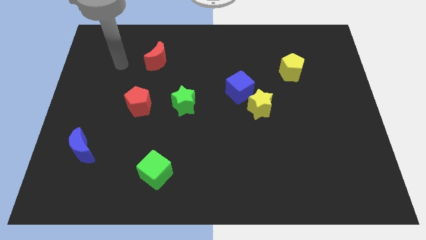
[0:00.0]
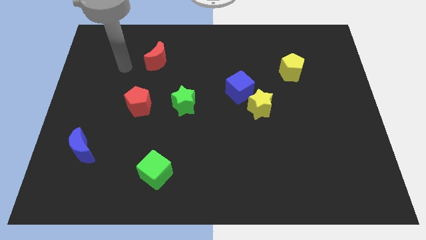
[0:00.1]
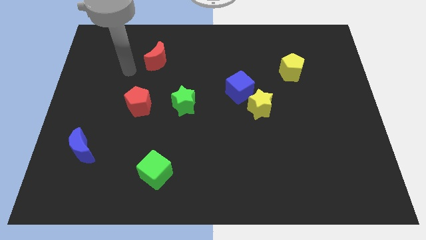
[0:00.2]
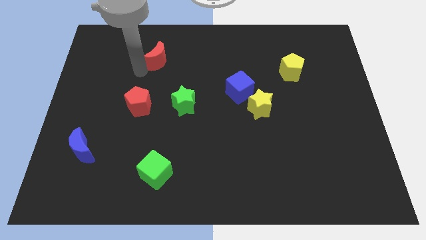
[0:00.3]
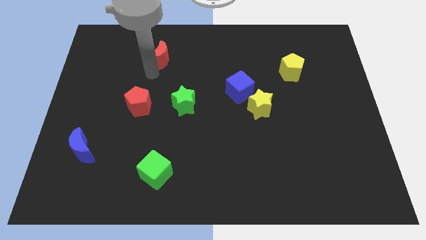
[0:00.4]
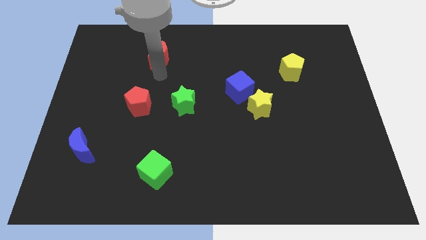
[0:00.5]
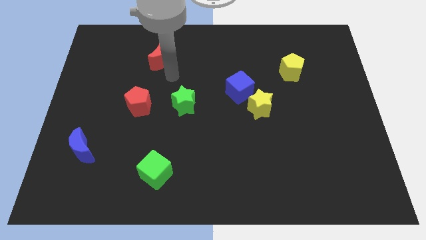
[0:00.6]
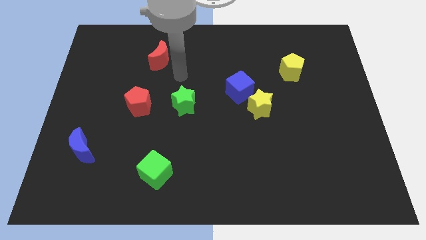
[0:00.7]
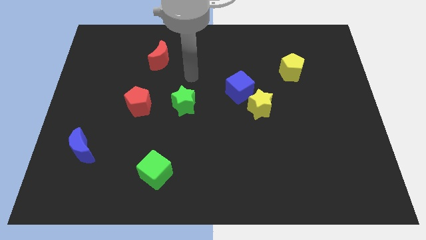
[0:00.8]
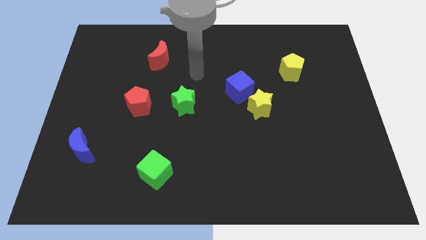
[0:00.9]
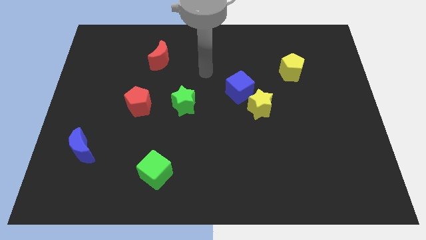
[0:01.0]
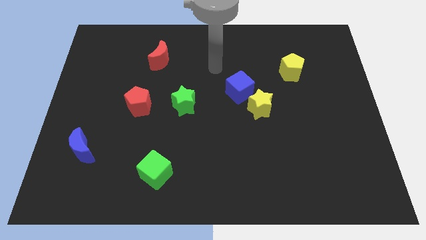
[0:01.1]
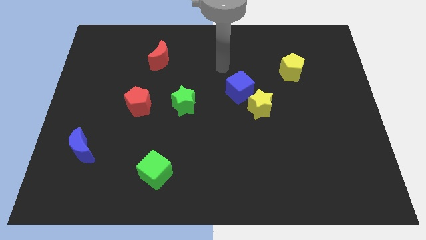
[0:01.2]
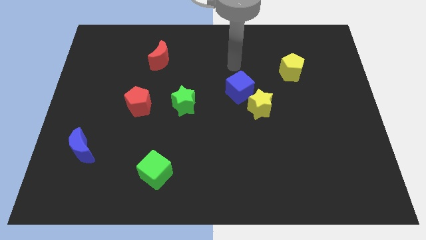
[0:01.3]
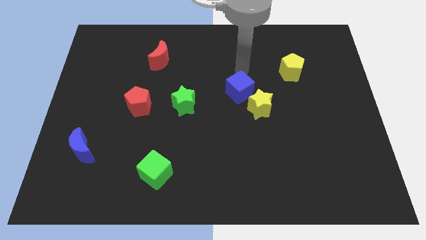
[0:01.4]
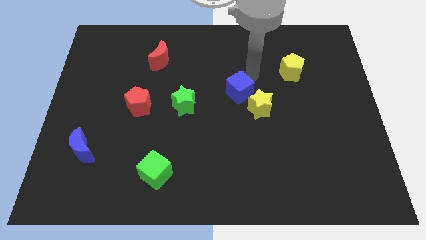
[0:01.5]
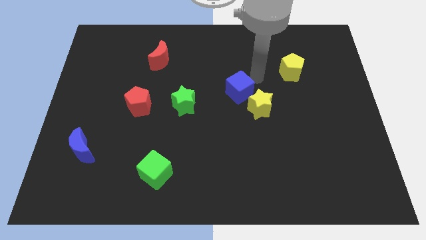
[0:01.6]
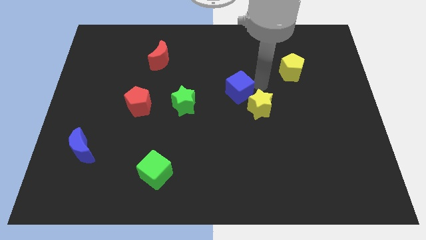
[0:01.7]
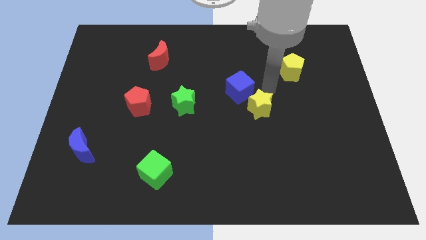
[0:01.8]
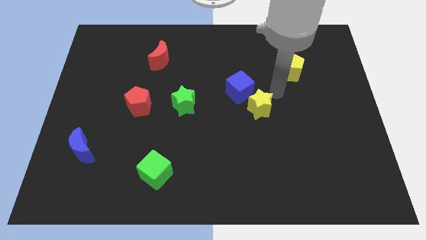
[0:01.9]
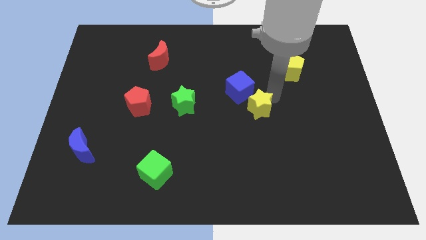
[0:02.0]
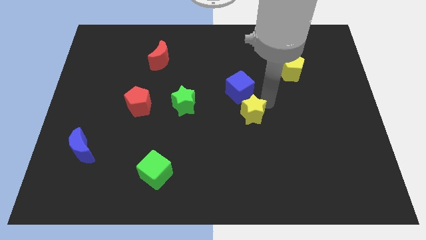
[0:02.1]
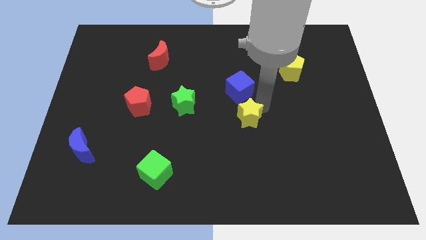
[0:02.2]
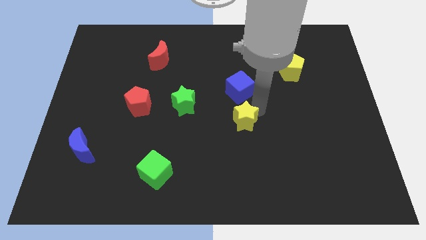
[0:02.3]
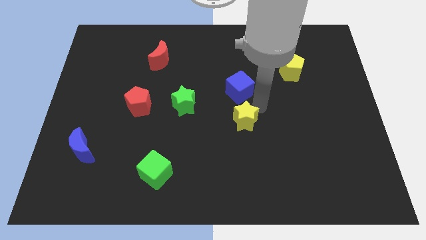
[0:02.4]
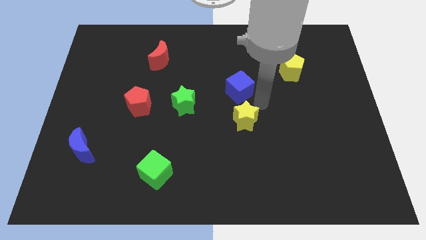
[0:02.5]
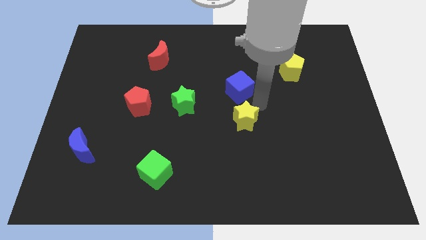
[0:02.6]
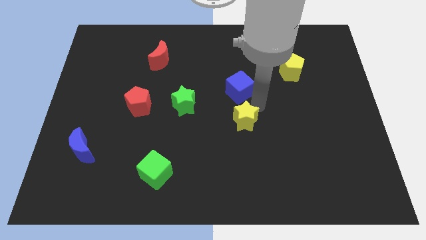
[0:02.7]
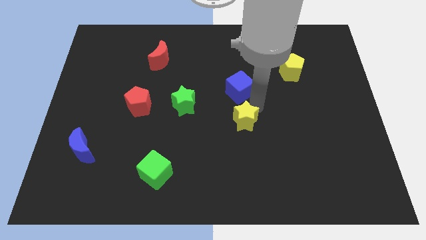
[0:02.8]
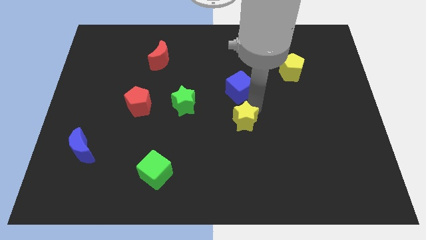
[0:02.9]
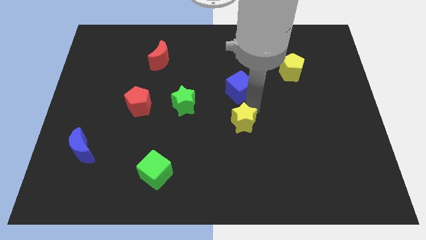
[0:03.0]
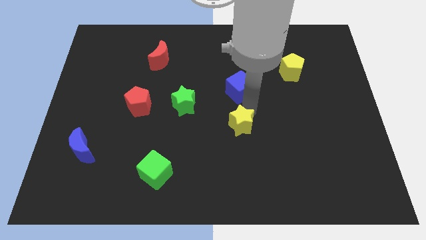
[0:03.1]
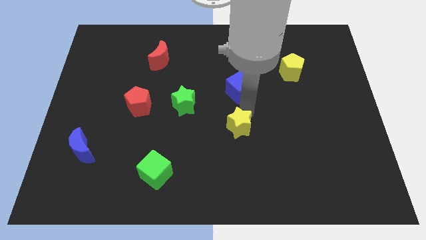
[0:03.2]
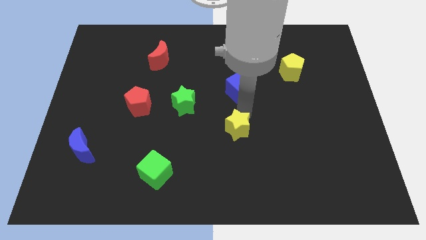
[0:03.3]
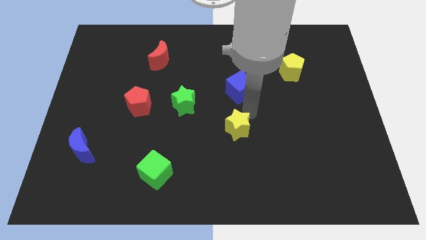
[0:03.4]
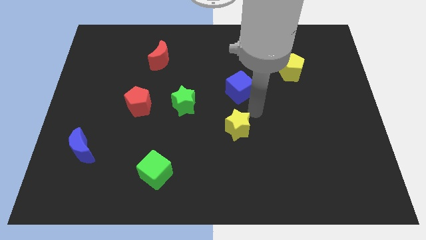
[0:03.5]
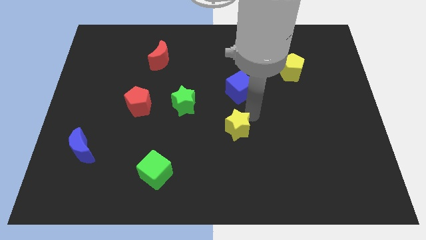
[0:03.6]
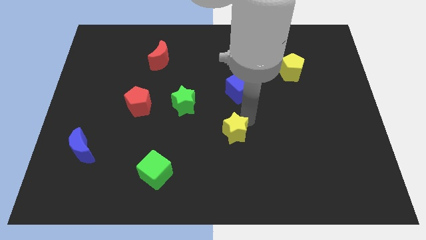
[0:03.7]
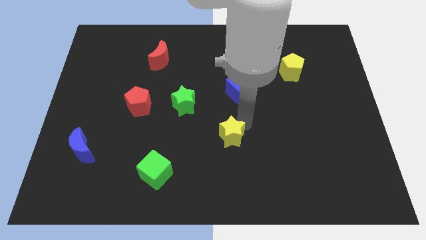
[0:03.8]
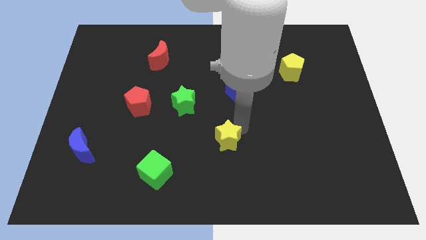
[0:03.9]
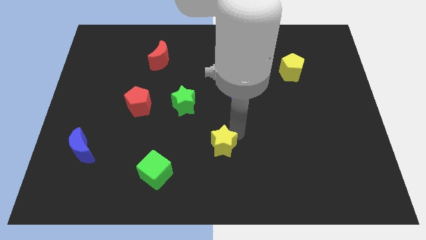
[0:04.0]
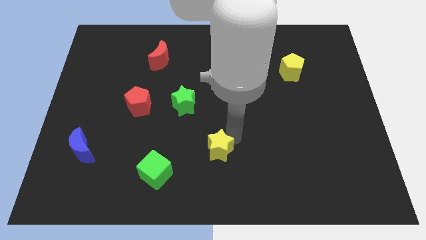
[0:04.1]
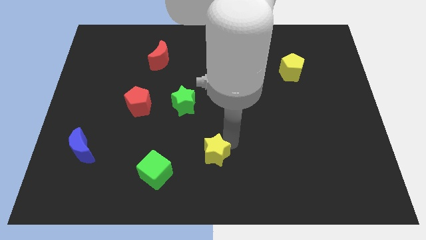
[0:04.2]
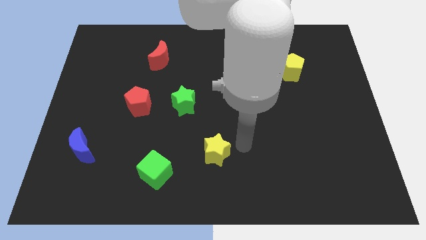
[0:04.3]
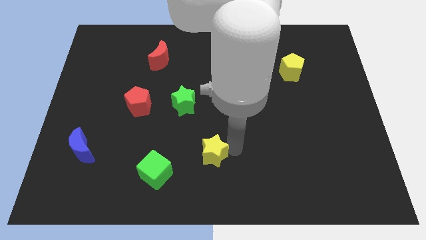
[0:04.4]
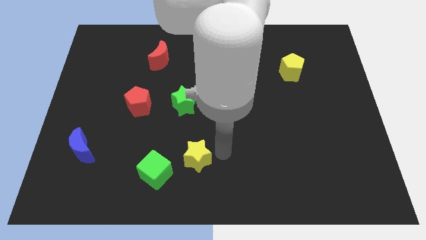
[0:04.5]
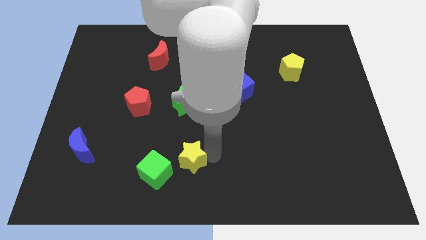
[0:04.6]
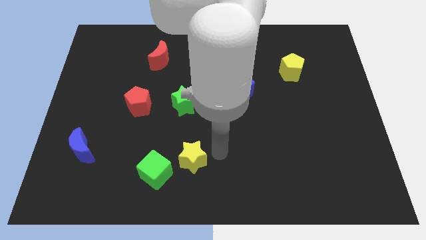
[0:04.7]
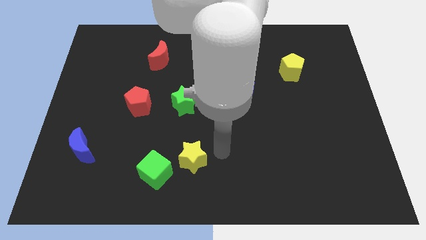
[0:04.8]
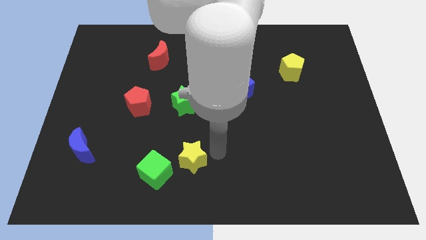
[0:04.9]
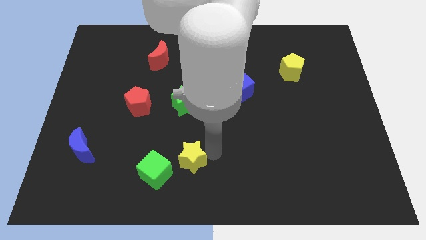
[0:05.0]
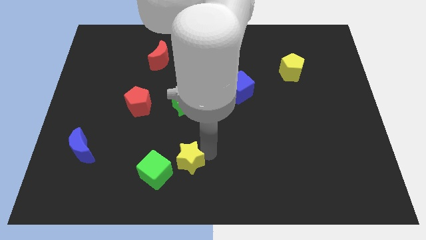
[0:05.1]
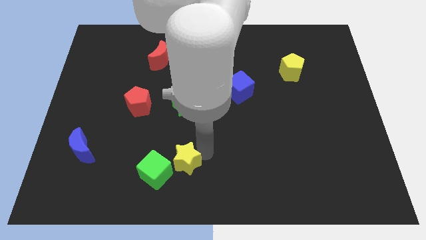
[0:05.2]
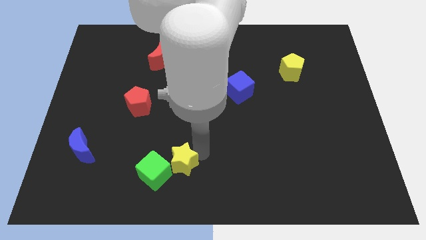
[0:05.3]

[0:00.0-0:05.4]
push the yellow star next to the green cube

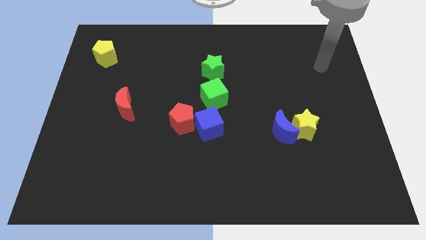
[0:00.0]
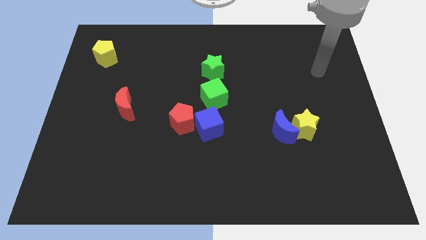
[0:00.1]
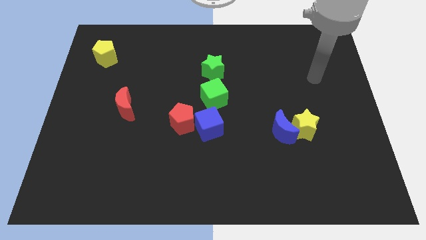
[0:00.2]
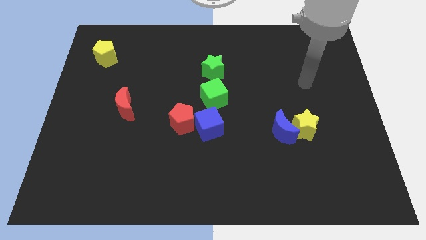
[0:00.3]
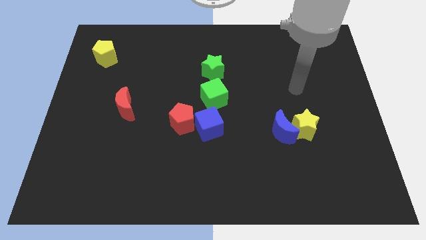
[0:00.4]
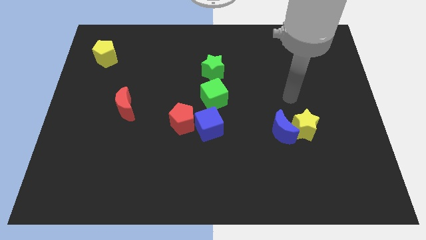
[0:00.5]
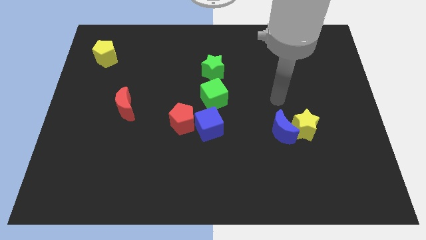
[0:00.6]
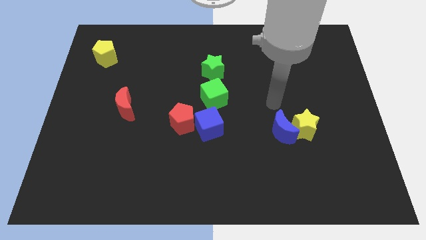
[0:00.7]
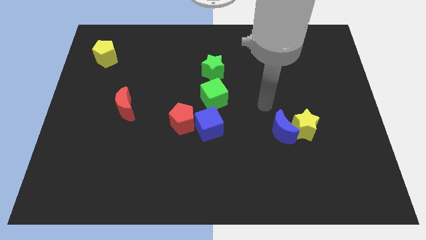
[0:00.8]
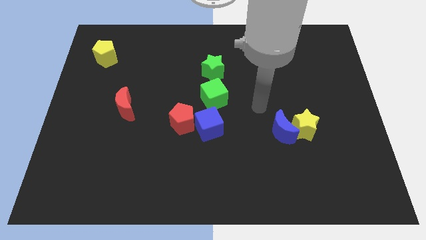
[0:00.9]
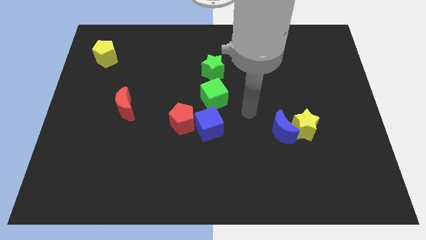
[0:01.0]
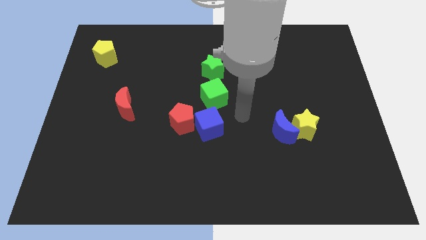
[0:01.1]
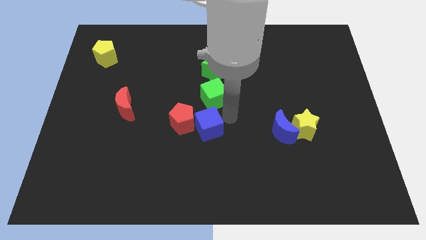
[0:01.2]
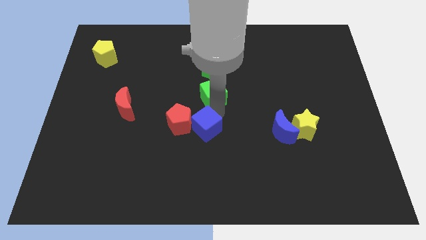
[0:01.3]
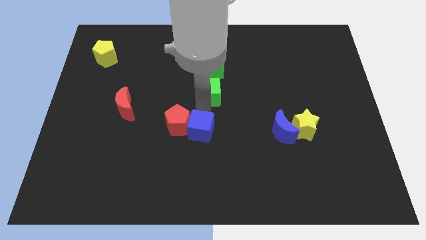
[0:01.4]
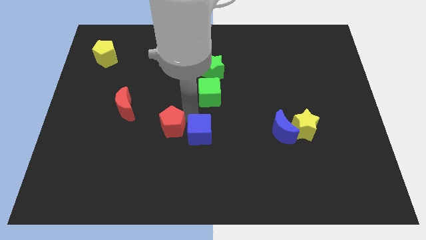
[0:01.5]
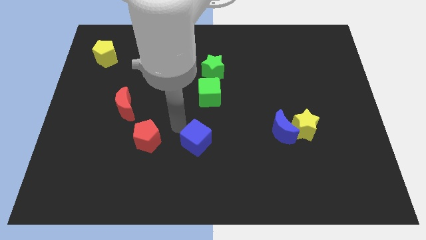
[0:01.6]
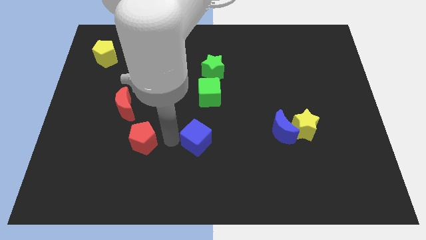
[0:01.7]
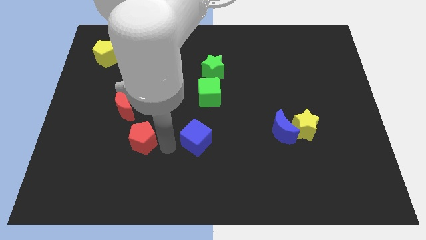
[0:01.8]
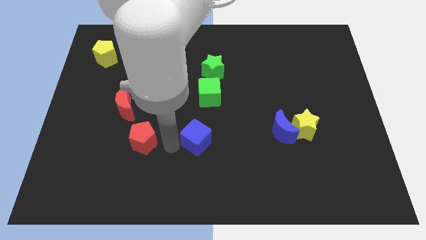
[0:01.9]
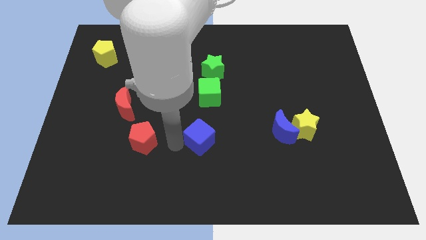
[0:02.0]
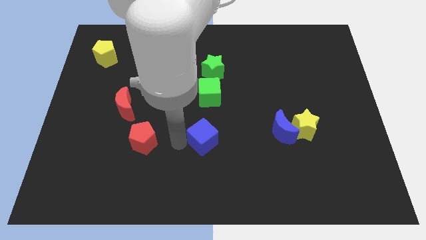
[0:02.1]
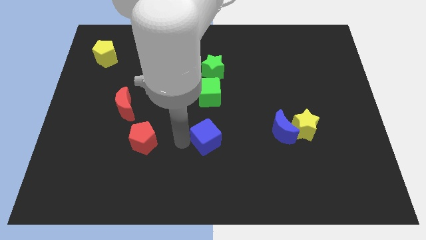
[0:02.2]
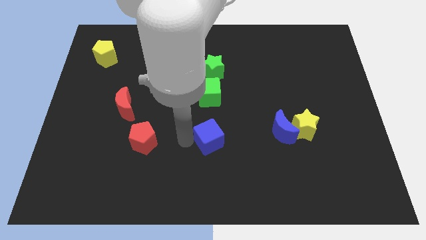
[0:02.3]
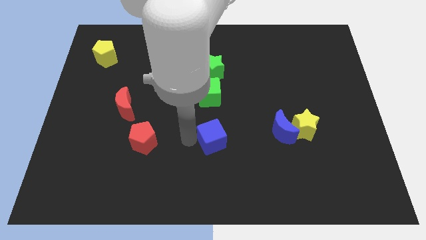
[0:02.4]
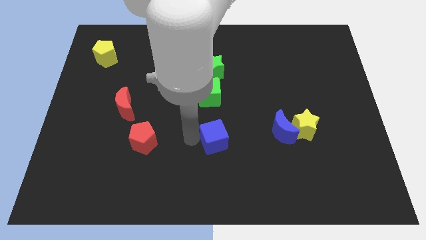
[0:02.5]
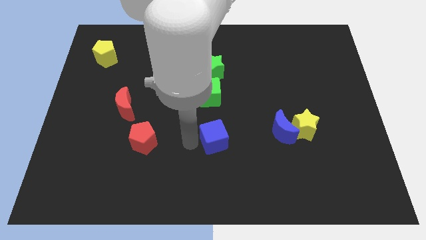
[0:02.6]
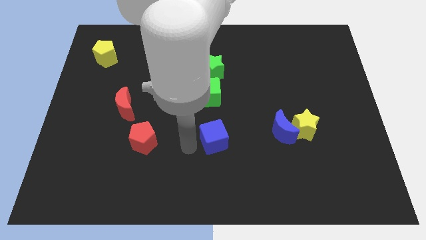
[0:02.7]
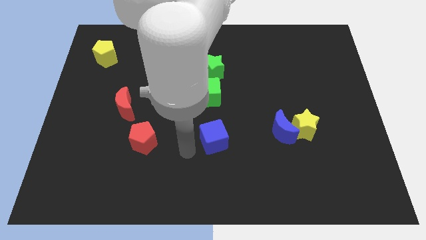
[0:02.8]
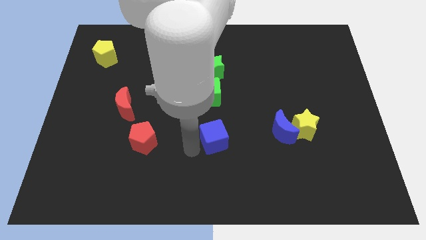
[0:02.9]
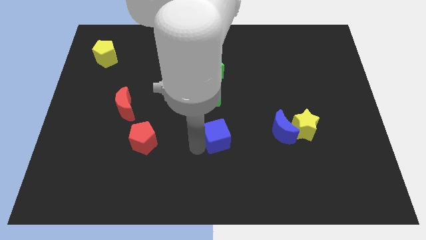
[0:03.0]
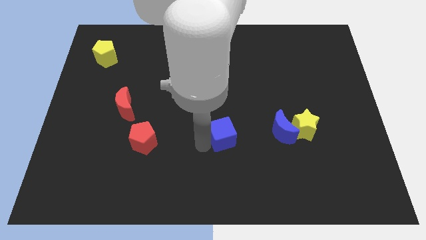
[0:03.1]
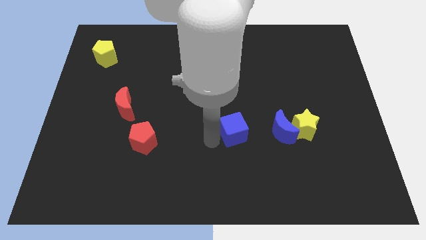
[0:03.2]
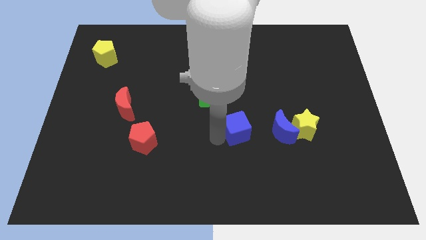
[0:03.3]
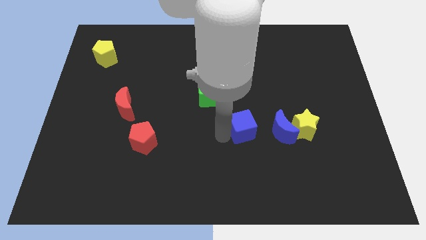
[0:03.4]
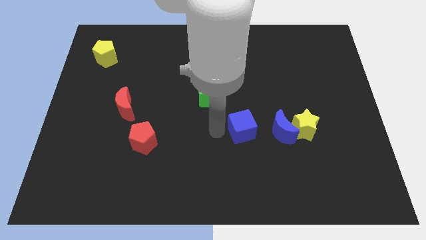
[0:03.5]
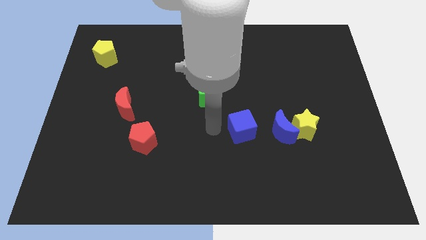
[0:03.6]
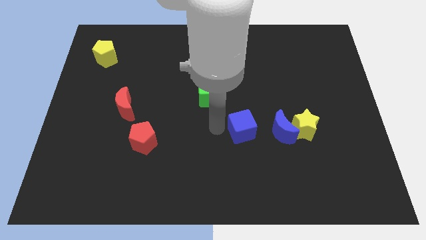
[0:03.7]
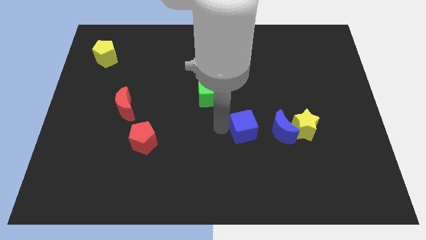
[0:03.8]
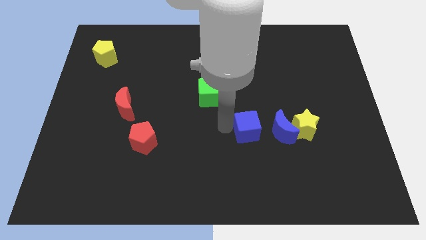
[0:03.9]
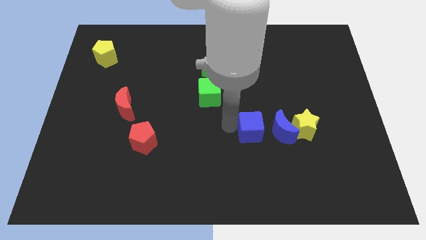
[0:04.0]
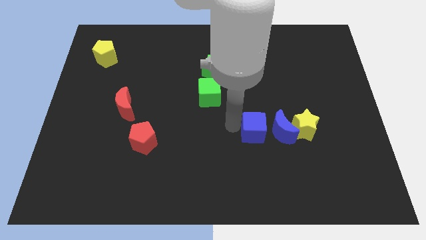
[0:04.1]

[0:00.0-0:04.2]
put the blue cube next to the blue moon
